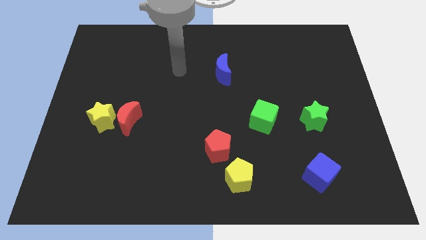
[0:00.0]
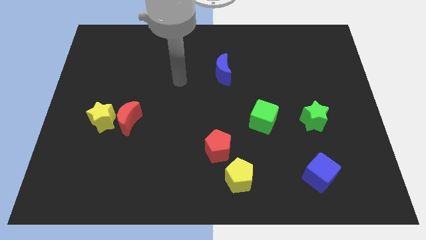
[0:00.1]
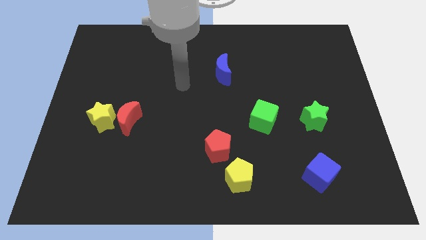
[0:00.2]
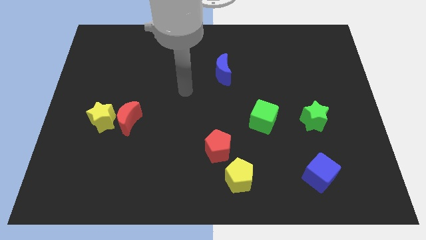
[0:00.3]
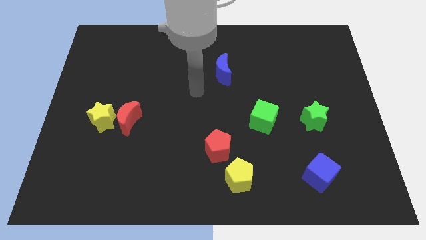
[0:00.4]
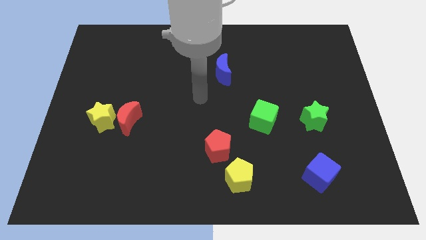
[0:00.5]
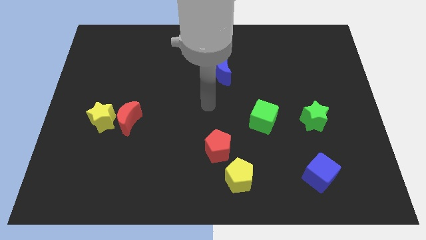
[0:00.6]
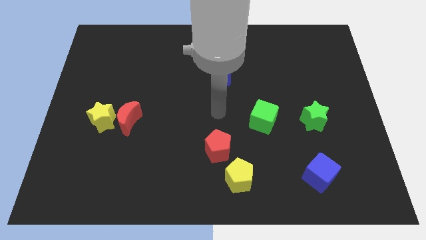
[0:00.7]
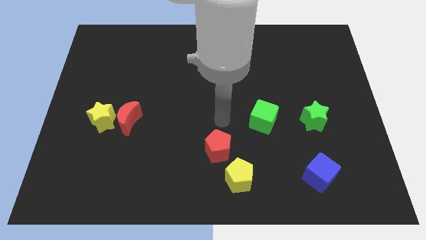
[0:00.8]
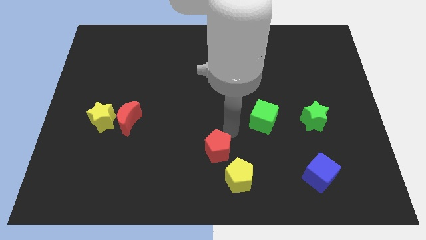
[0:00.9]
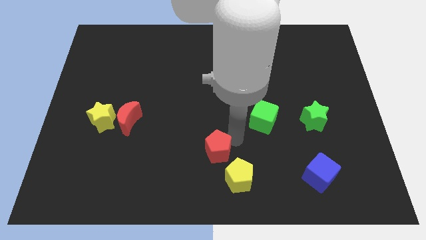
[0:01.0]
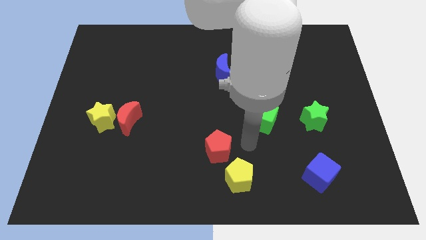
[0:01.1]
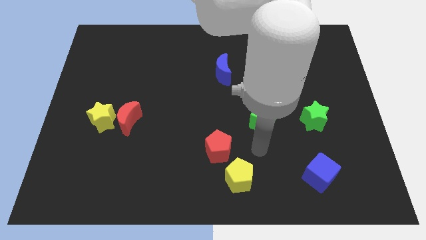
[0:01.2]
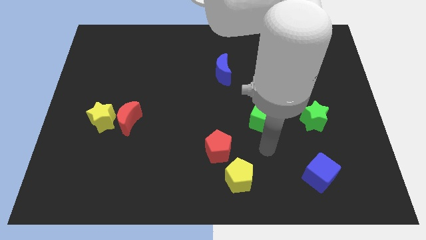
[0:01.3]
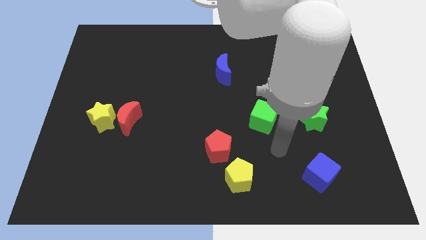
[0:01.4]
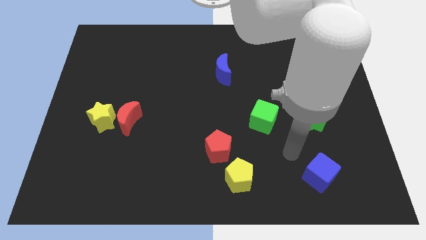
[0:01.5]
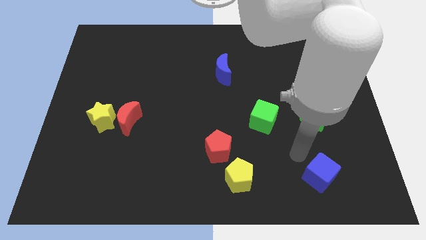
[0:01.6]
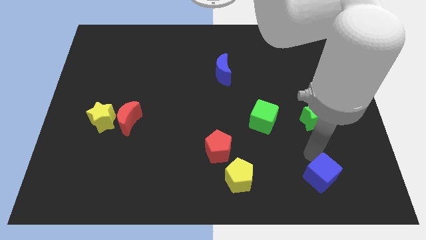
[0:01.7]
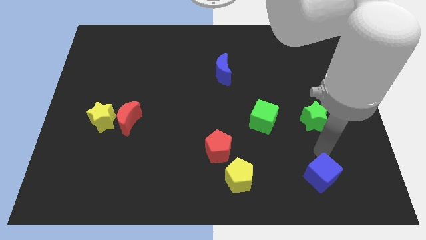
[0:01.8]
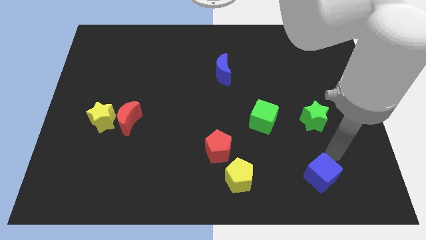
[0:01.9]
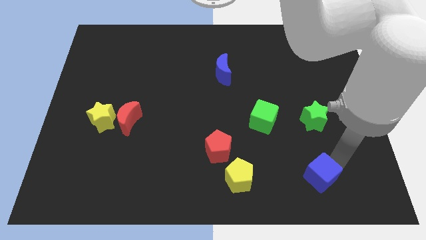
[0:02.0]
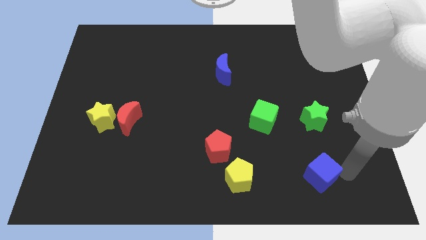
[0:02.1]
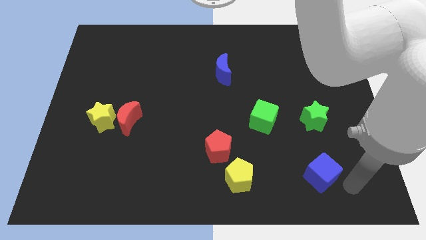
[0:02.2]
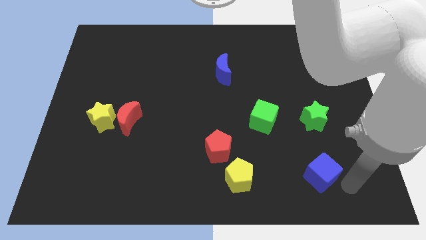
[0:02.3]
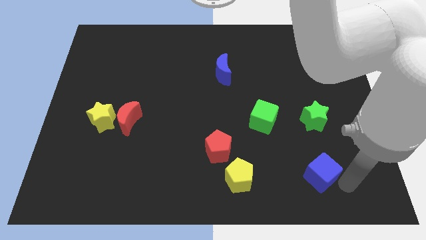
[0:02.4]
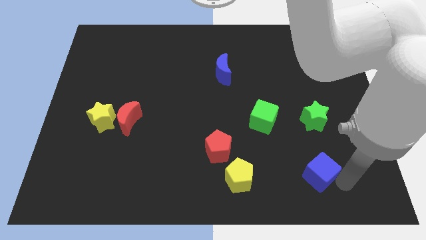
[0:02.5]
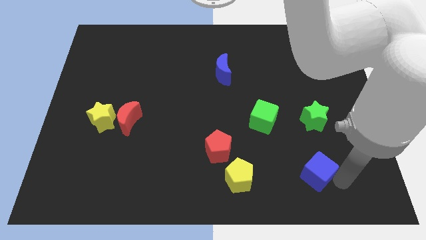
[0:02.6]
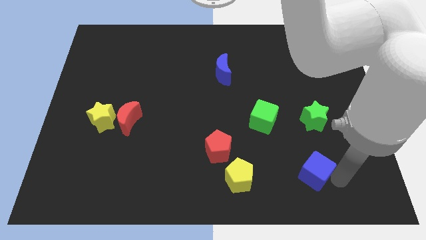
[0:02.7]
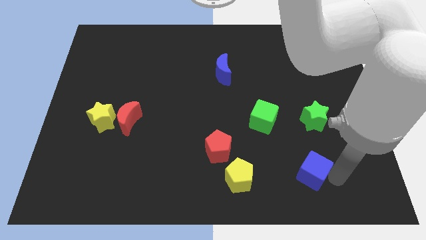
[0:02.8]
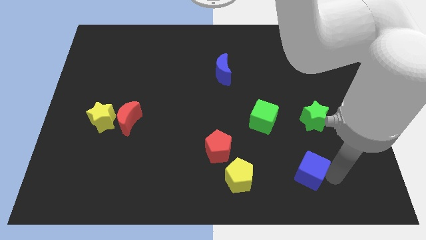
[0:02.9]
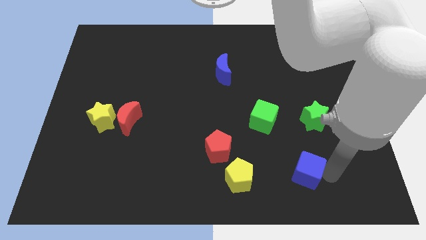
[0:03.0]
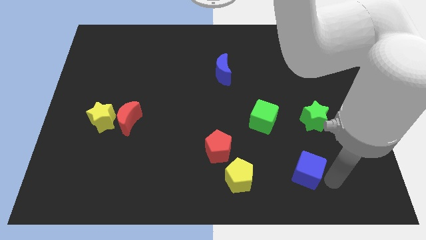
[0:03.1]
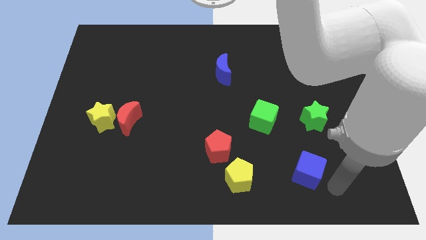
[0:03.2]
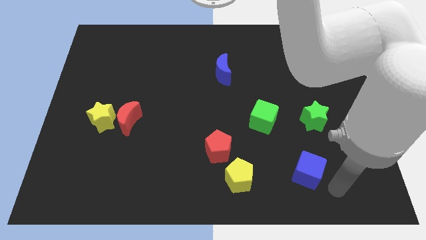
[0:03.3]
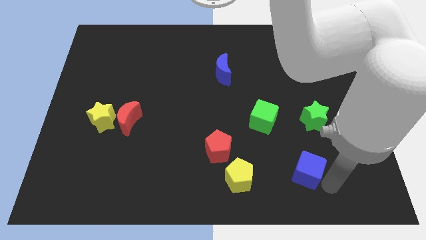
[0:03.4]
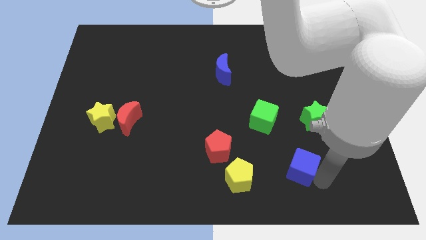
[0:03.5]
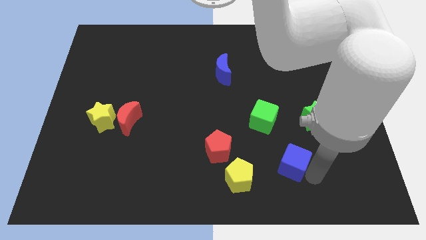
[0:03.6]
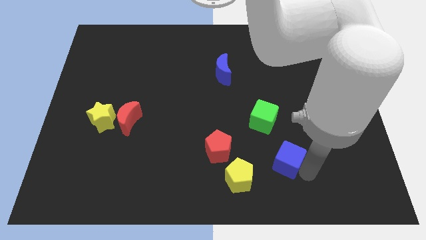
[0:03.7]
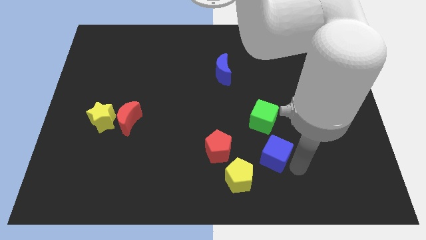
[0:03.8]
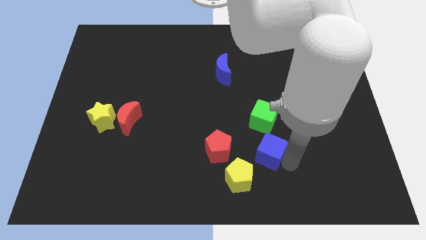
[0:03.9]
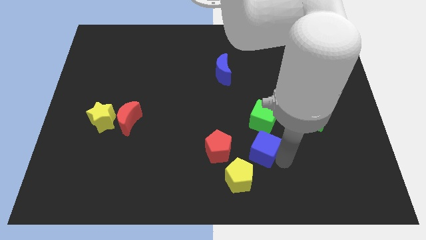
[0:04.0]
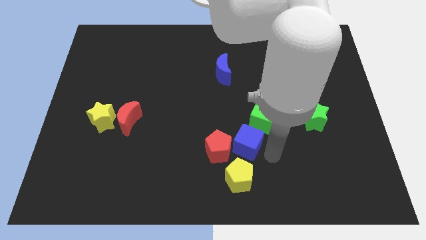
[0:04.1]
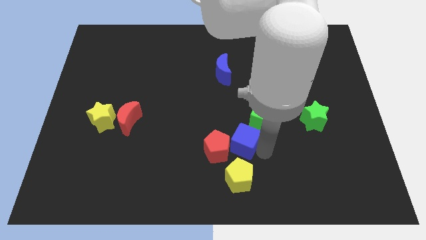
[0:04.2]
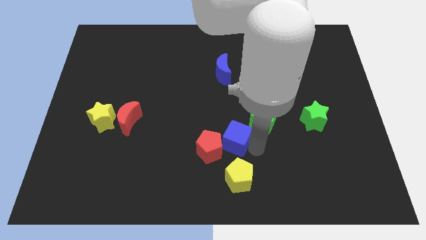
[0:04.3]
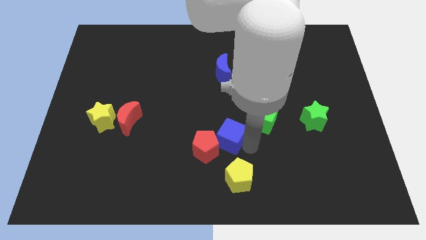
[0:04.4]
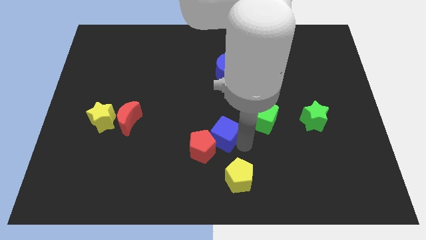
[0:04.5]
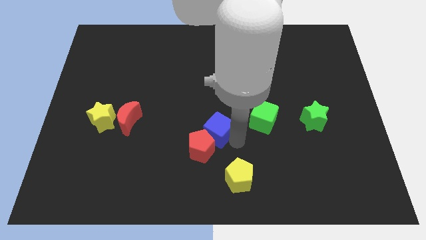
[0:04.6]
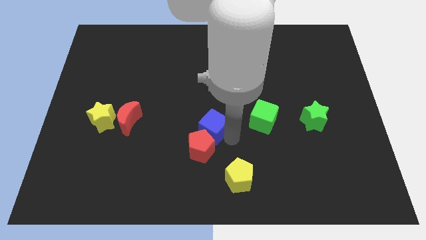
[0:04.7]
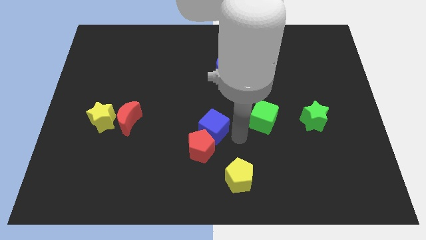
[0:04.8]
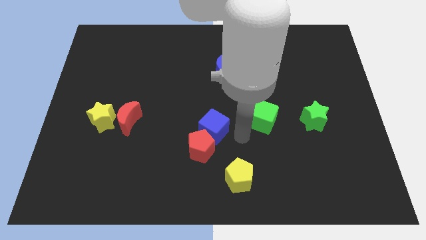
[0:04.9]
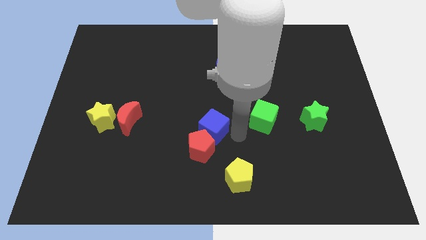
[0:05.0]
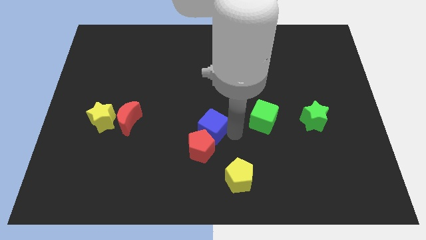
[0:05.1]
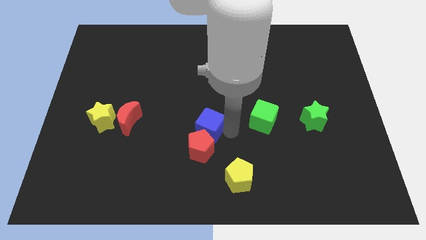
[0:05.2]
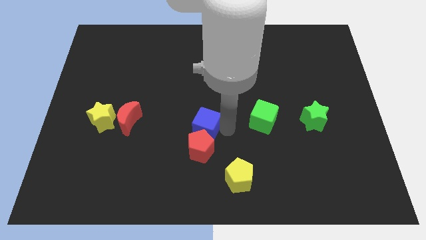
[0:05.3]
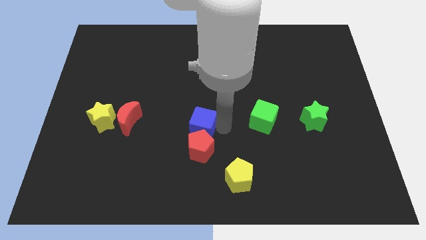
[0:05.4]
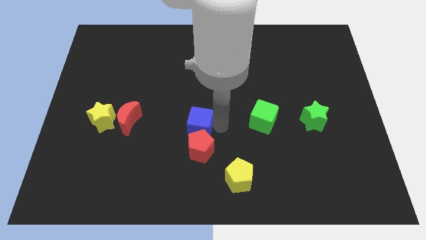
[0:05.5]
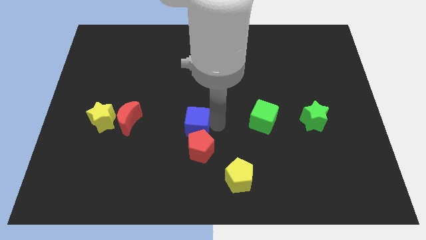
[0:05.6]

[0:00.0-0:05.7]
put the blue cube right of the red moon

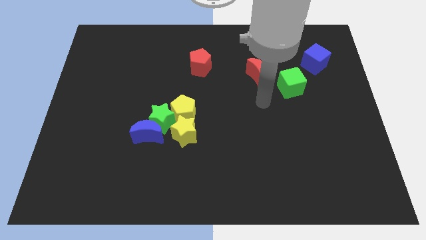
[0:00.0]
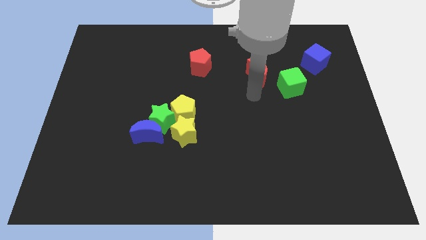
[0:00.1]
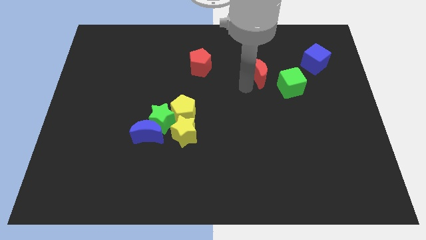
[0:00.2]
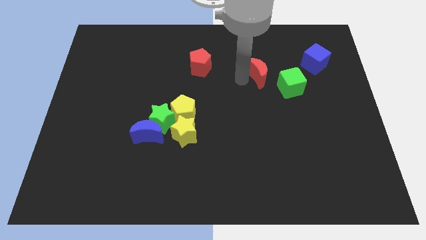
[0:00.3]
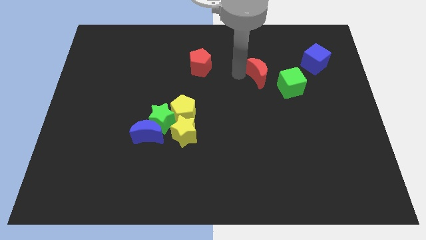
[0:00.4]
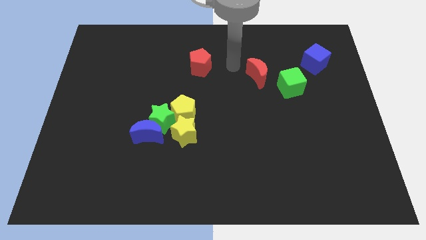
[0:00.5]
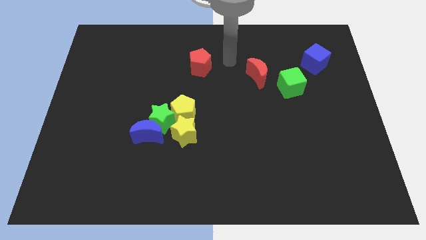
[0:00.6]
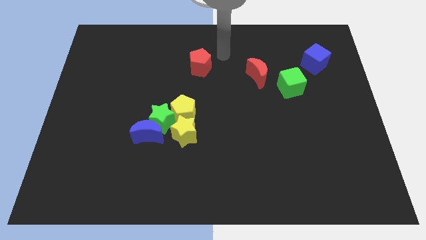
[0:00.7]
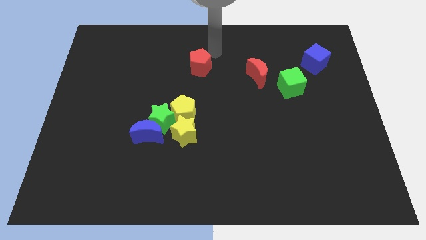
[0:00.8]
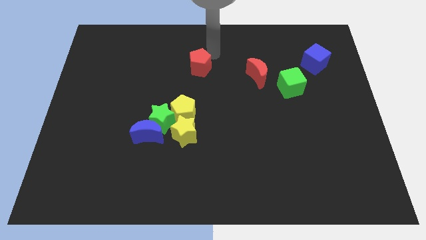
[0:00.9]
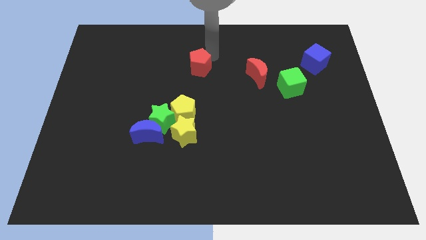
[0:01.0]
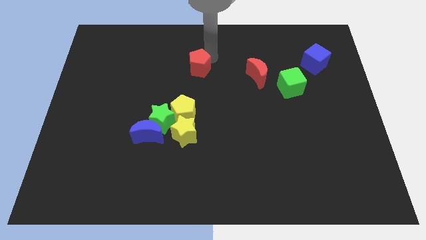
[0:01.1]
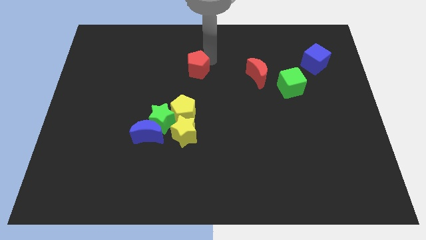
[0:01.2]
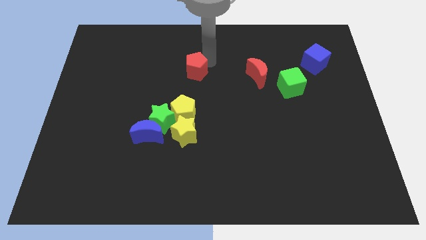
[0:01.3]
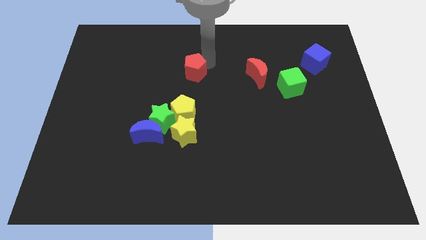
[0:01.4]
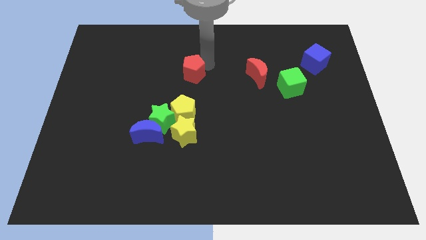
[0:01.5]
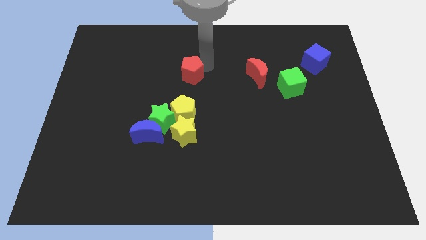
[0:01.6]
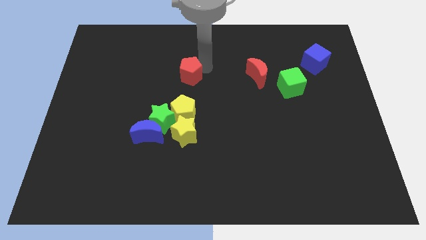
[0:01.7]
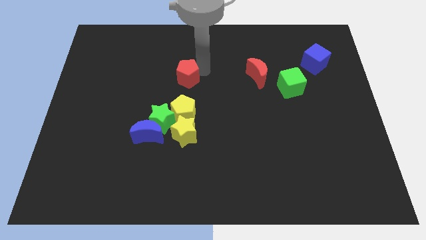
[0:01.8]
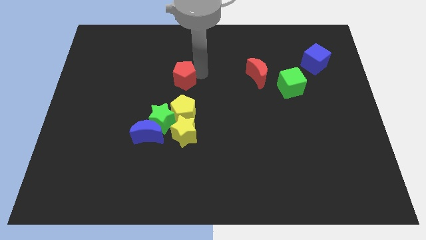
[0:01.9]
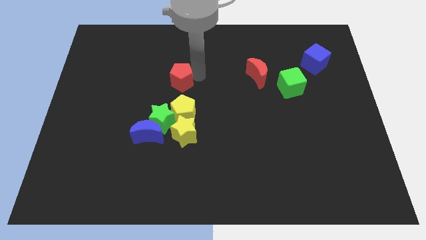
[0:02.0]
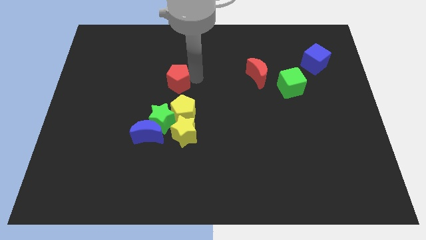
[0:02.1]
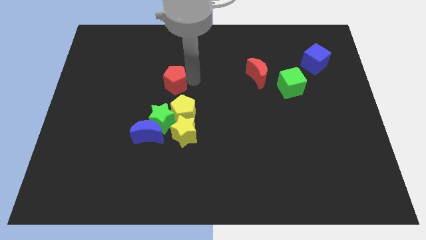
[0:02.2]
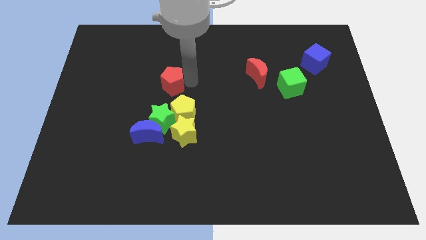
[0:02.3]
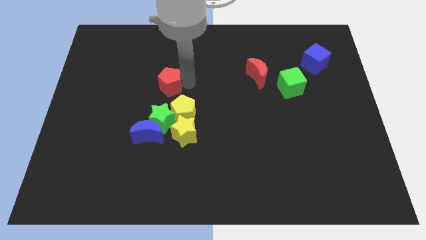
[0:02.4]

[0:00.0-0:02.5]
push the red pentagon to the top of the blue moon
